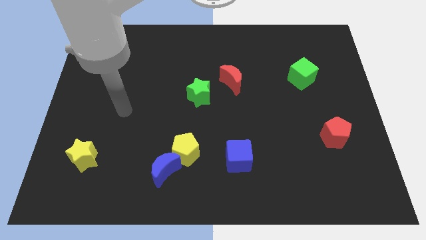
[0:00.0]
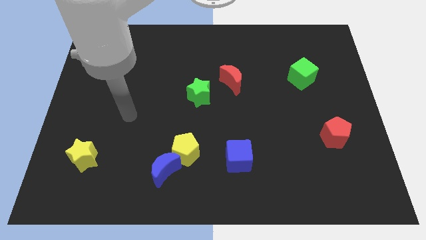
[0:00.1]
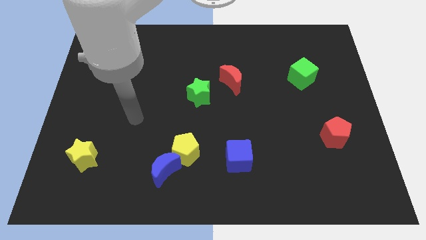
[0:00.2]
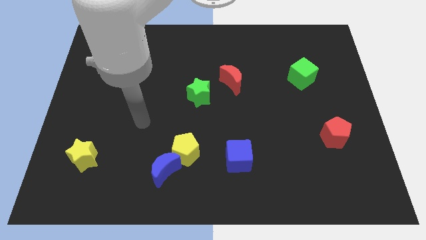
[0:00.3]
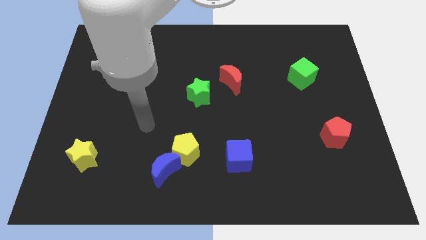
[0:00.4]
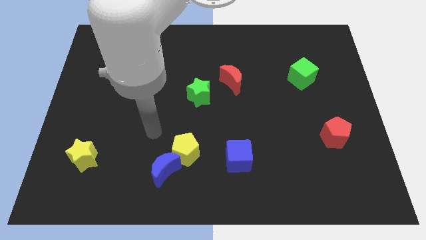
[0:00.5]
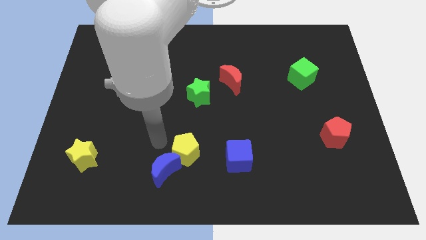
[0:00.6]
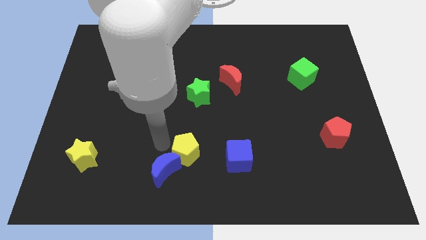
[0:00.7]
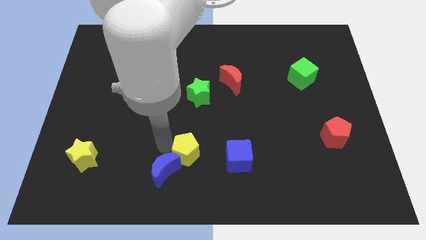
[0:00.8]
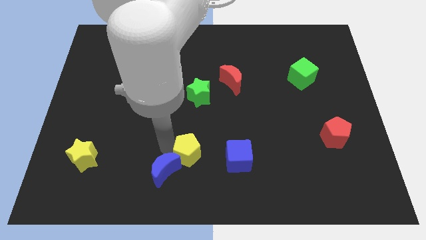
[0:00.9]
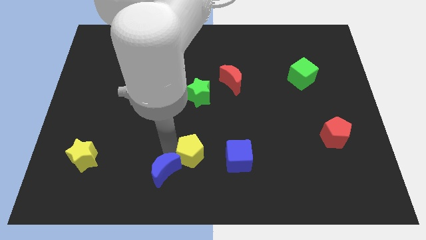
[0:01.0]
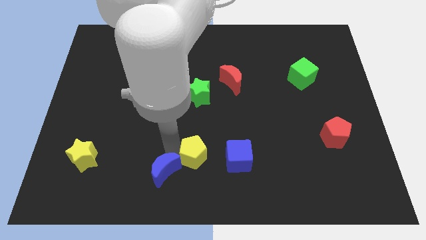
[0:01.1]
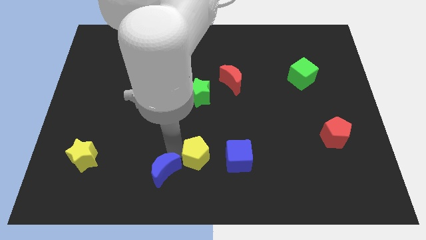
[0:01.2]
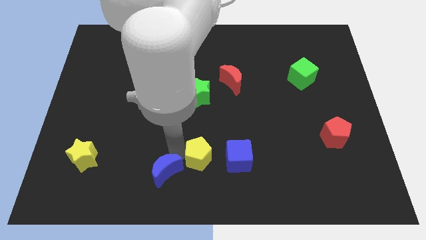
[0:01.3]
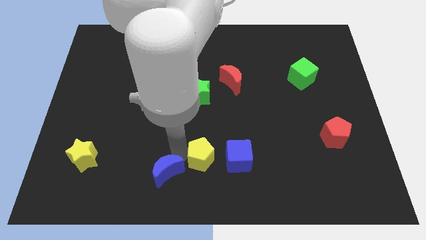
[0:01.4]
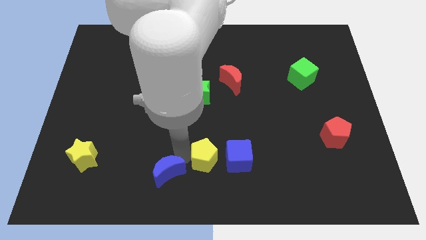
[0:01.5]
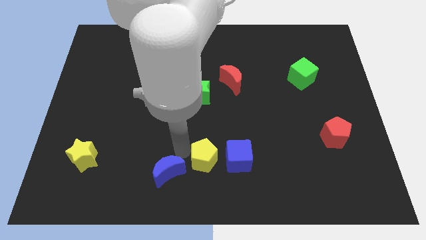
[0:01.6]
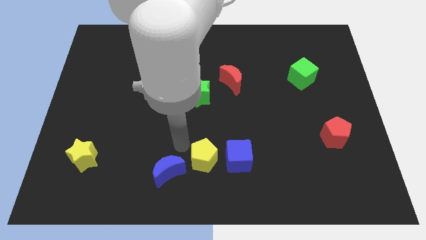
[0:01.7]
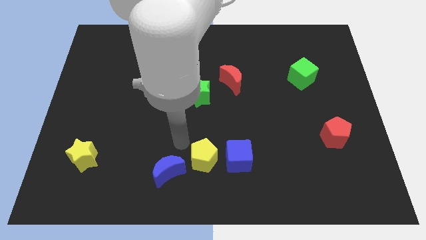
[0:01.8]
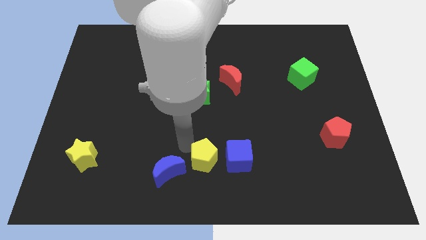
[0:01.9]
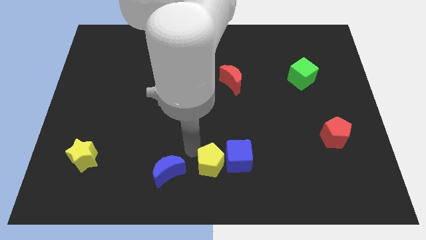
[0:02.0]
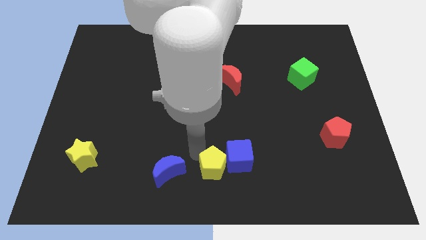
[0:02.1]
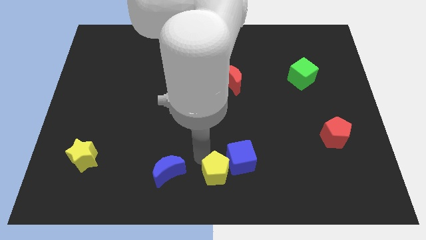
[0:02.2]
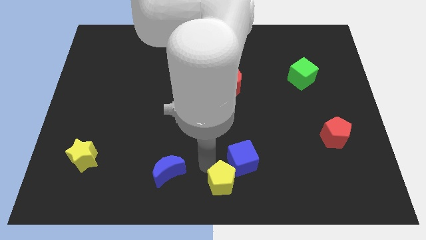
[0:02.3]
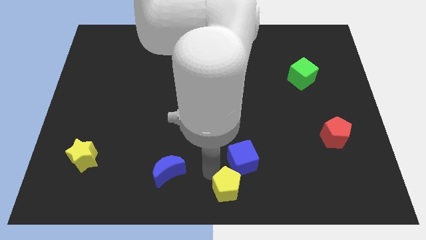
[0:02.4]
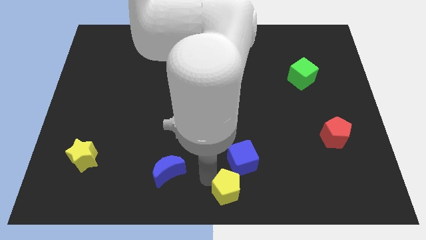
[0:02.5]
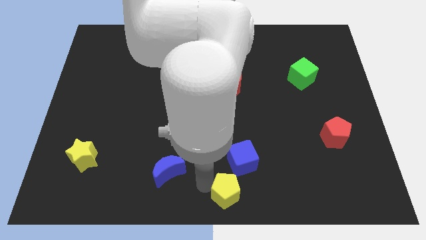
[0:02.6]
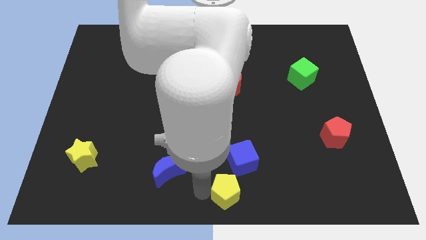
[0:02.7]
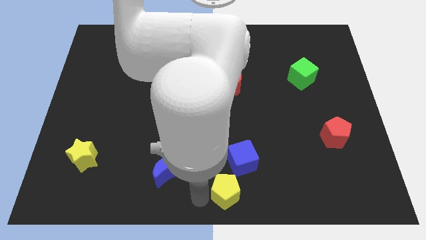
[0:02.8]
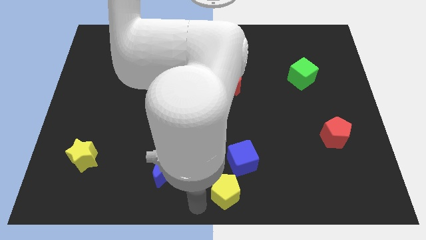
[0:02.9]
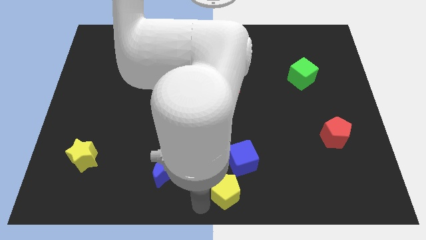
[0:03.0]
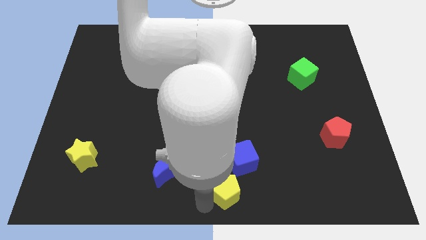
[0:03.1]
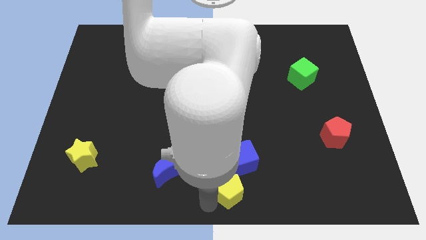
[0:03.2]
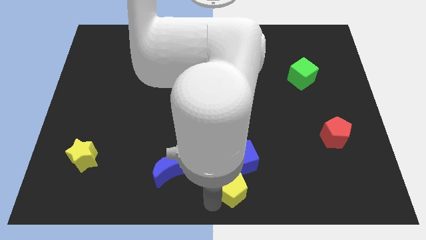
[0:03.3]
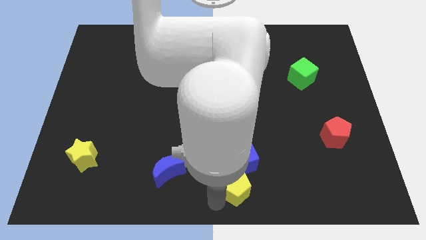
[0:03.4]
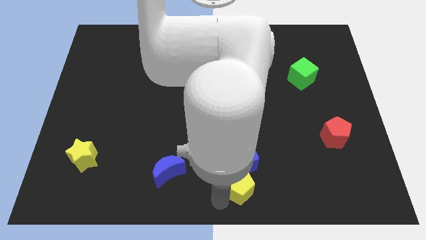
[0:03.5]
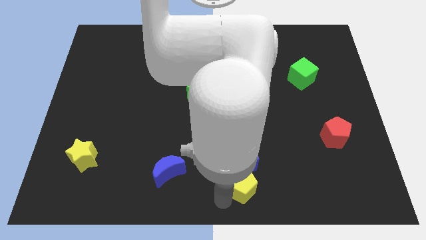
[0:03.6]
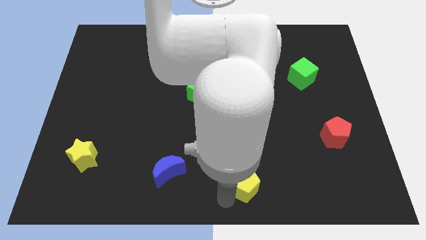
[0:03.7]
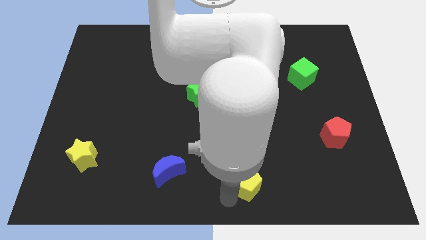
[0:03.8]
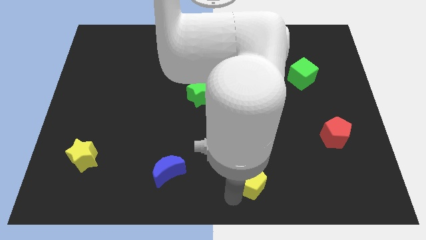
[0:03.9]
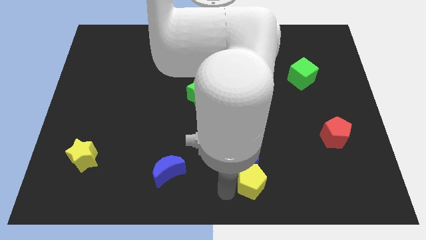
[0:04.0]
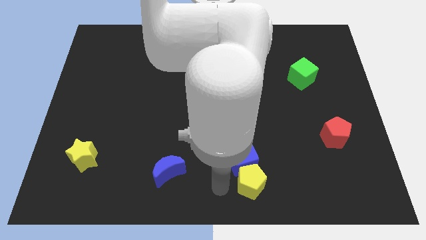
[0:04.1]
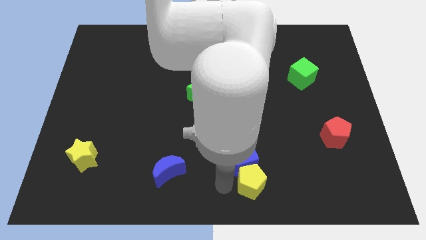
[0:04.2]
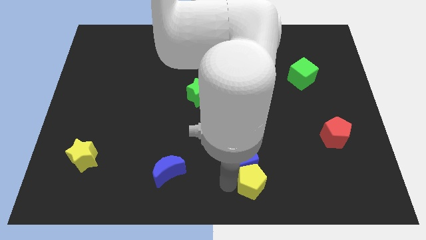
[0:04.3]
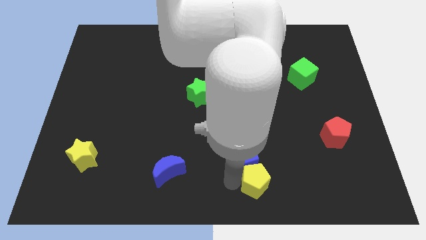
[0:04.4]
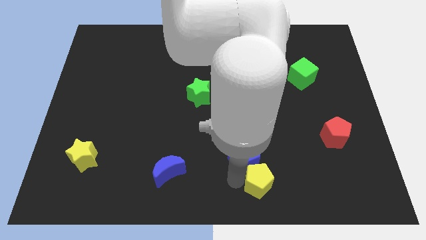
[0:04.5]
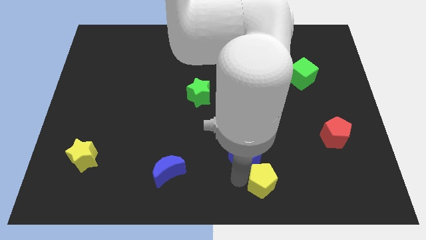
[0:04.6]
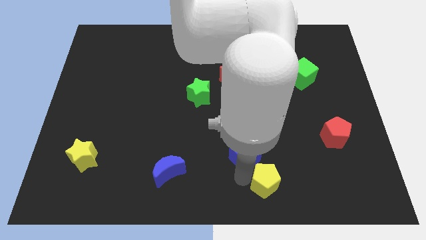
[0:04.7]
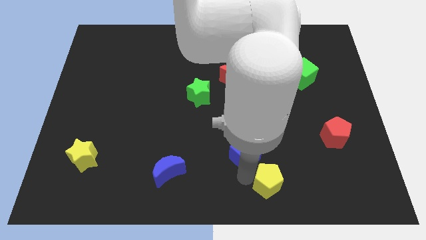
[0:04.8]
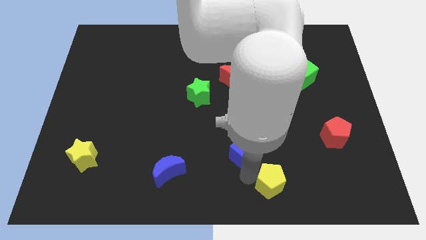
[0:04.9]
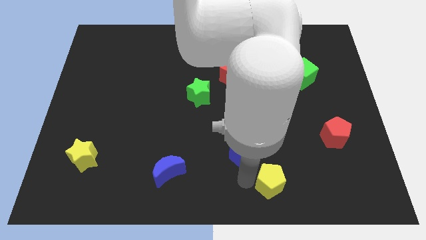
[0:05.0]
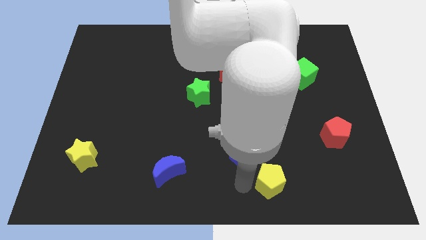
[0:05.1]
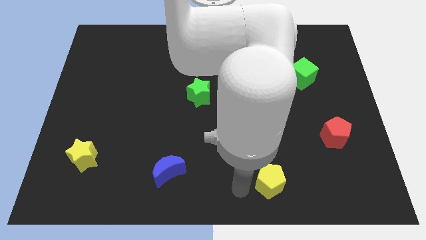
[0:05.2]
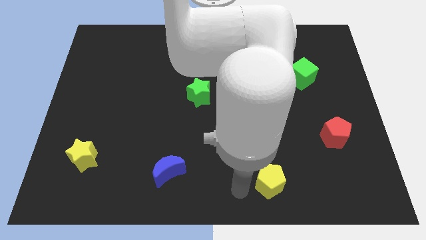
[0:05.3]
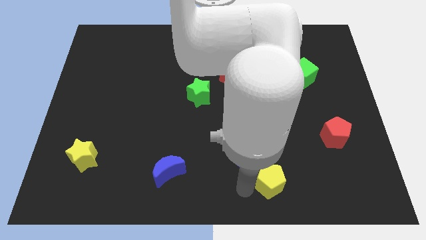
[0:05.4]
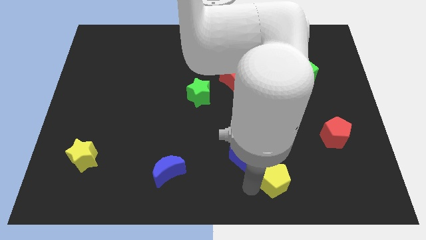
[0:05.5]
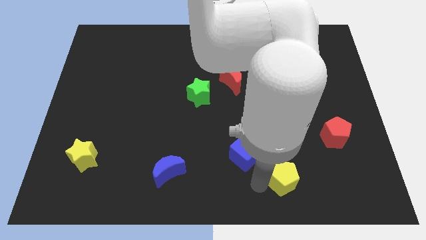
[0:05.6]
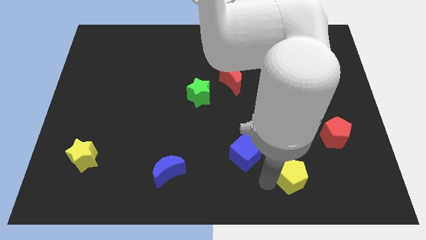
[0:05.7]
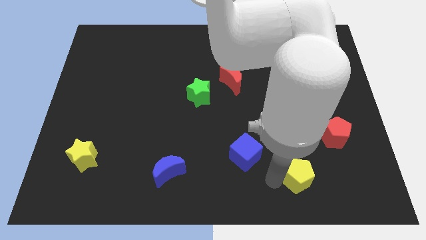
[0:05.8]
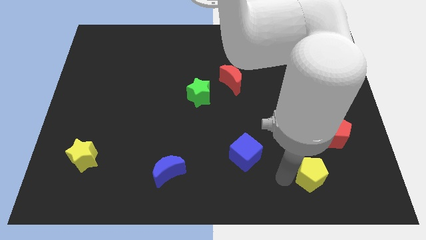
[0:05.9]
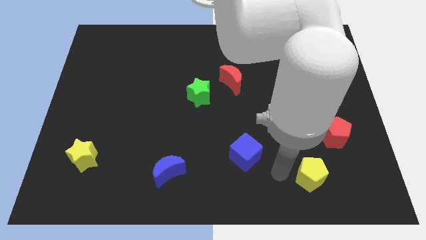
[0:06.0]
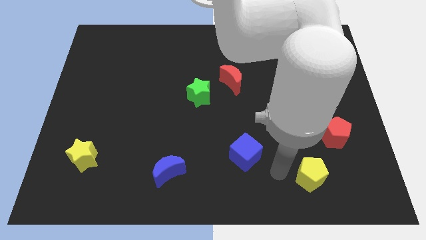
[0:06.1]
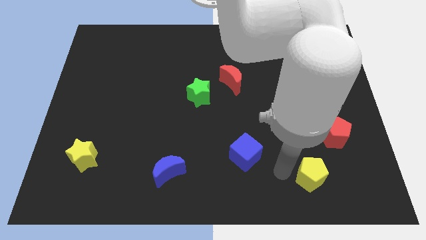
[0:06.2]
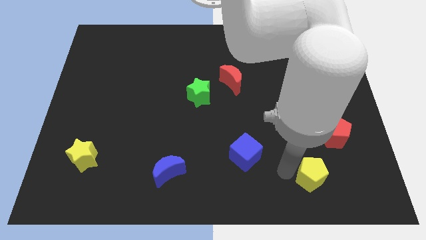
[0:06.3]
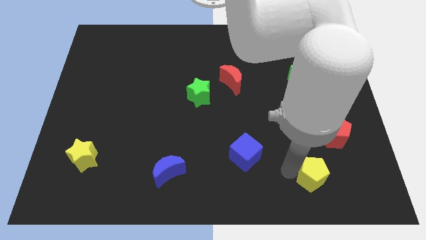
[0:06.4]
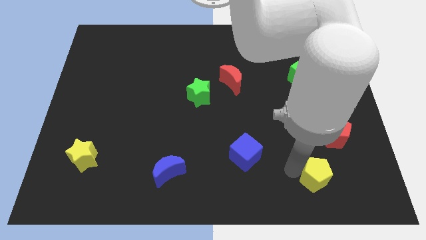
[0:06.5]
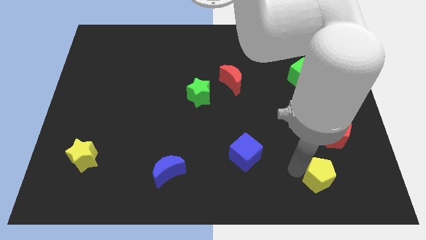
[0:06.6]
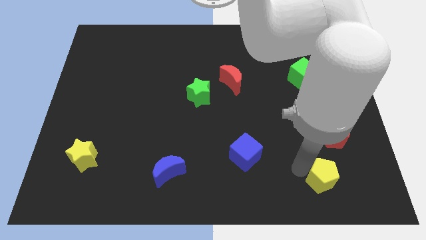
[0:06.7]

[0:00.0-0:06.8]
push the yellow pentagon to the bottom of the red pentagon
